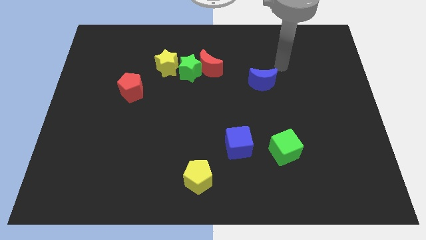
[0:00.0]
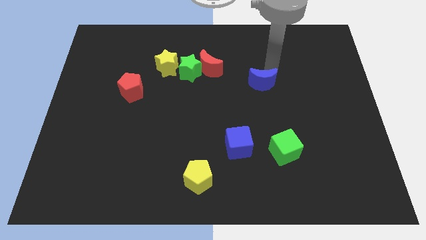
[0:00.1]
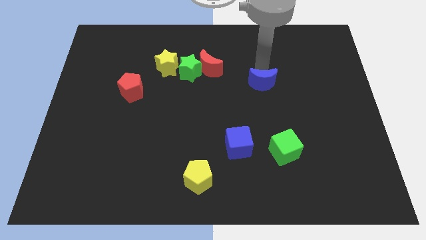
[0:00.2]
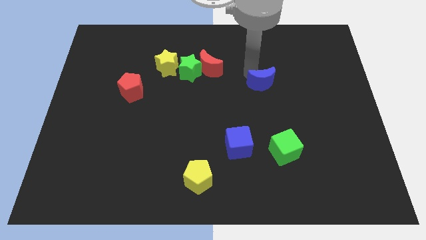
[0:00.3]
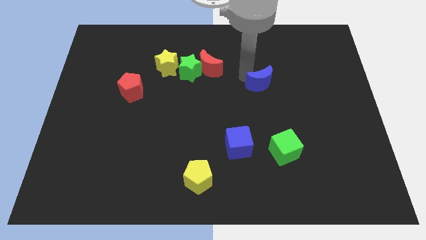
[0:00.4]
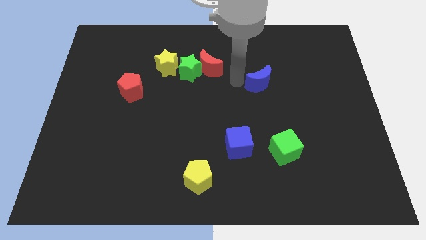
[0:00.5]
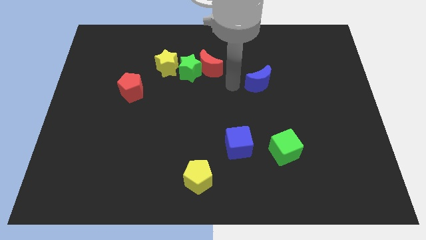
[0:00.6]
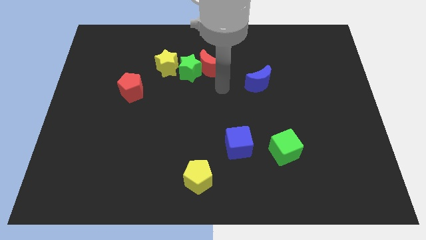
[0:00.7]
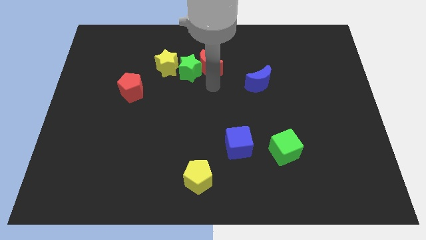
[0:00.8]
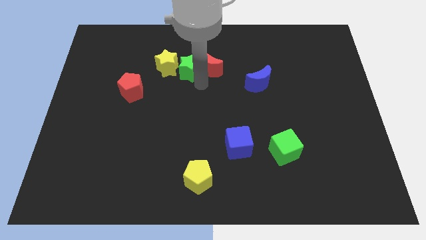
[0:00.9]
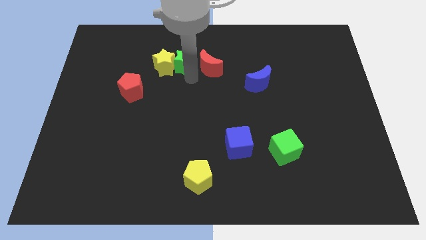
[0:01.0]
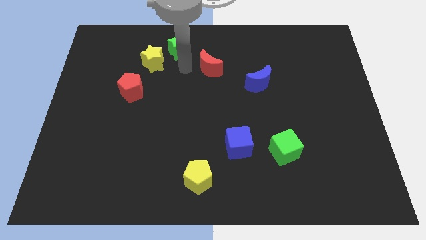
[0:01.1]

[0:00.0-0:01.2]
move the red moon away from the green star

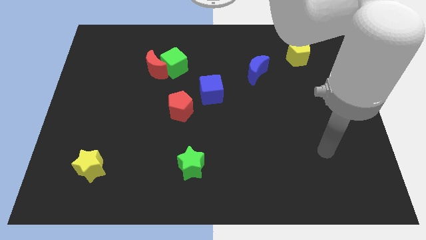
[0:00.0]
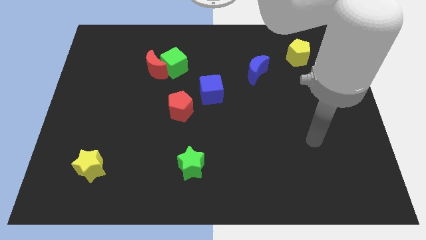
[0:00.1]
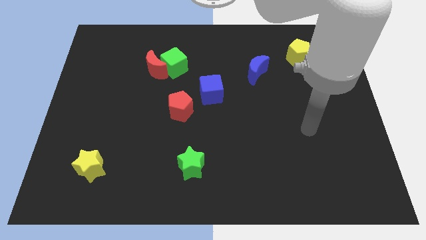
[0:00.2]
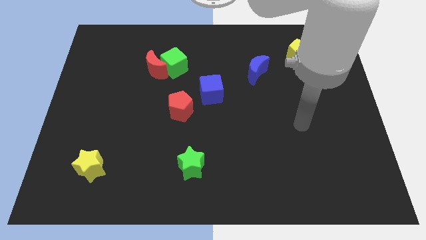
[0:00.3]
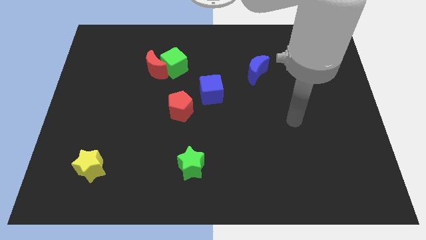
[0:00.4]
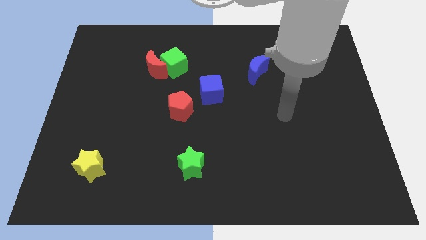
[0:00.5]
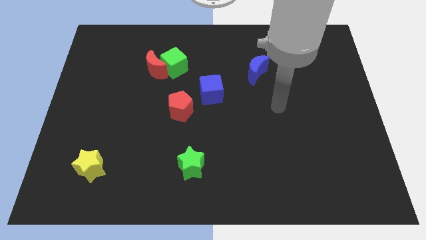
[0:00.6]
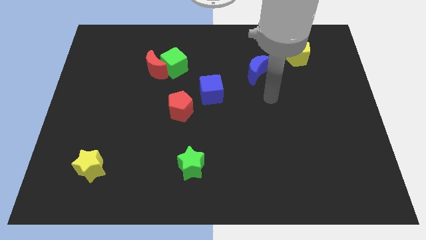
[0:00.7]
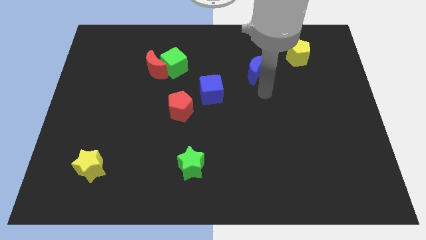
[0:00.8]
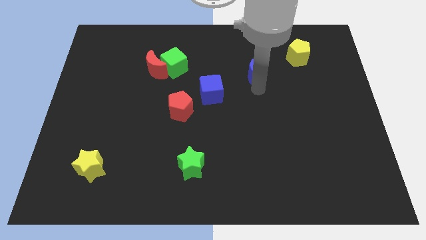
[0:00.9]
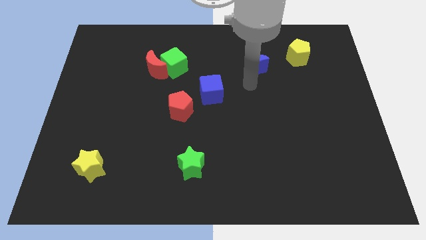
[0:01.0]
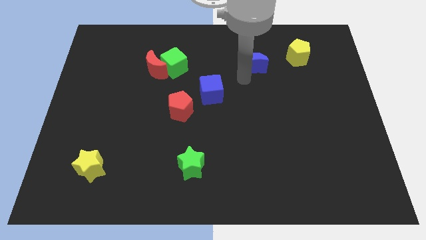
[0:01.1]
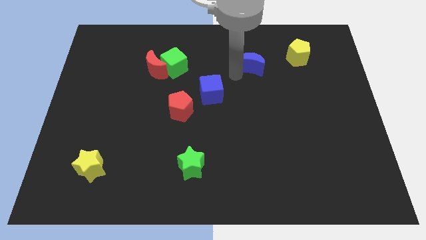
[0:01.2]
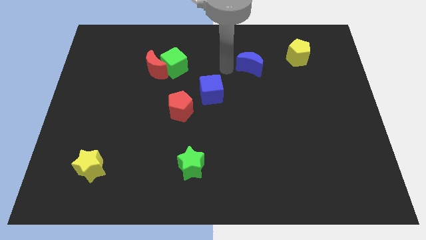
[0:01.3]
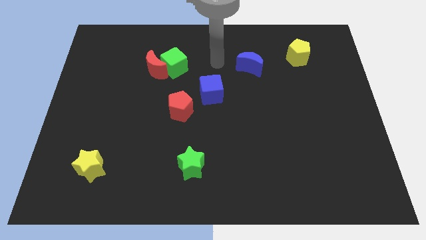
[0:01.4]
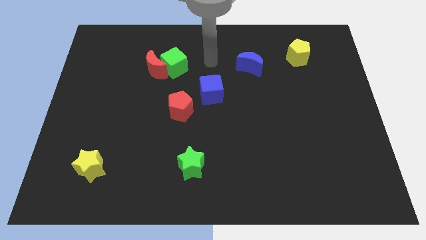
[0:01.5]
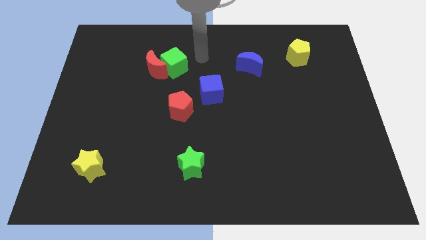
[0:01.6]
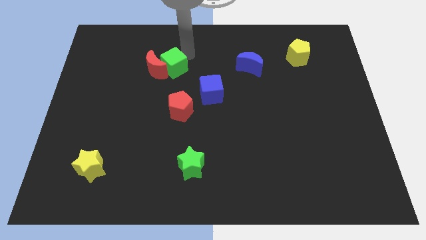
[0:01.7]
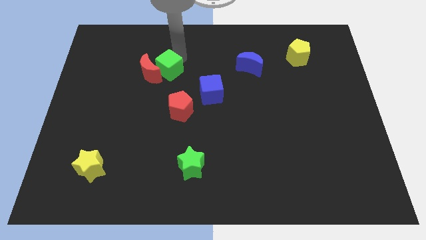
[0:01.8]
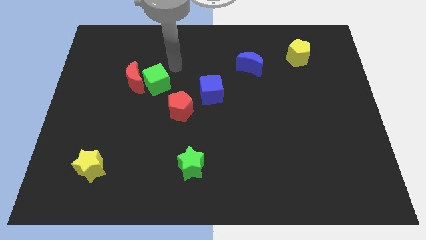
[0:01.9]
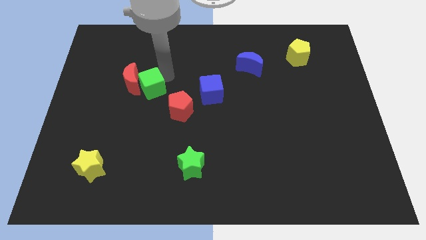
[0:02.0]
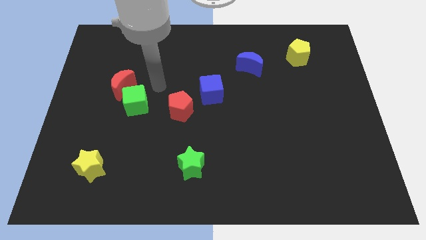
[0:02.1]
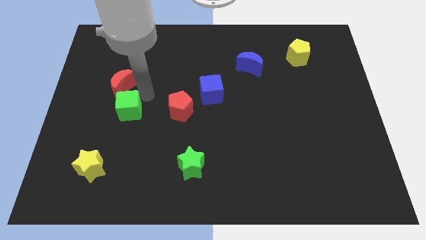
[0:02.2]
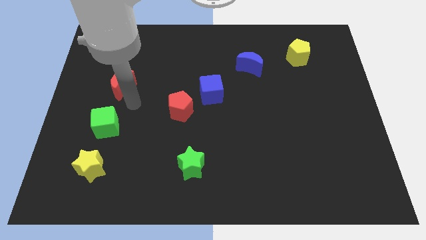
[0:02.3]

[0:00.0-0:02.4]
separate the red moon from the green cube

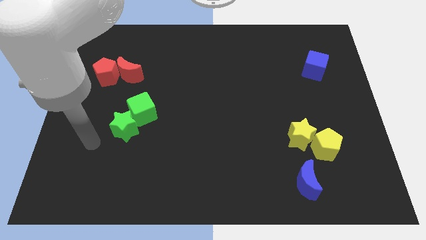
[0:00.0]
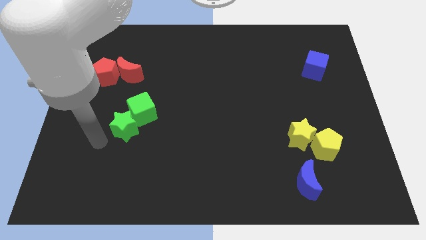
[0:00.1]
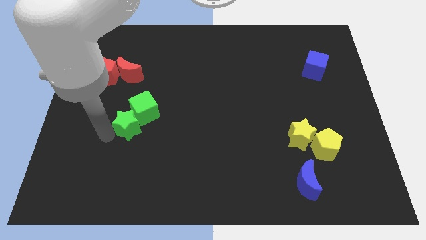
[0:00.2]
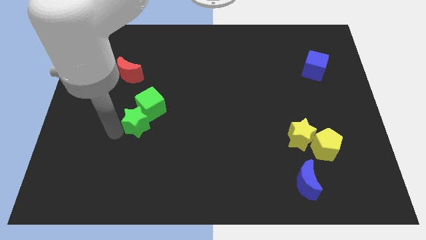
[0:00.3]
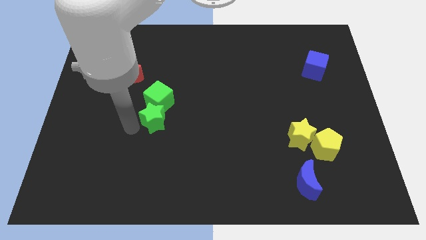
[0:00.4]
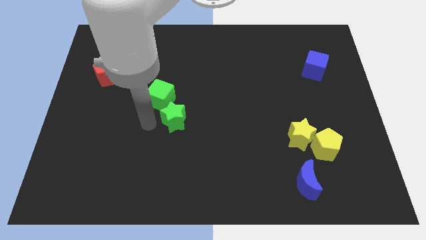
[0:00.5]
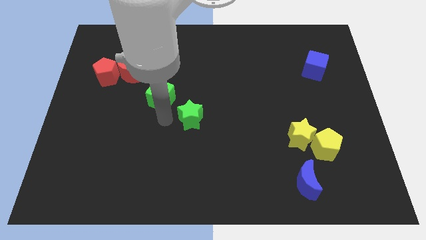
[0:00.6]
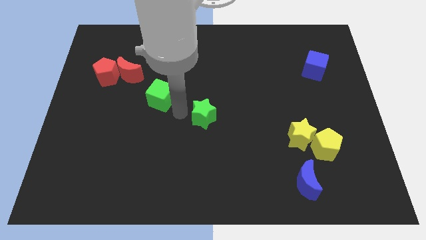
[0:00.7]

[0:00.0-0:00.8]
pull the green cube apart from the green star

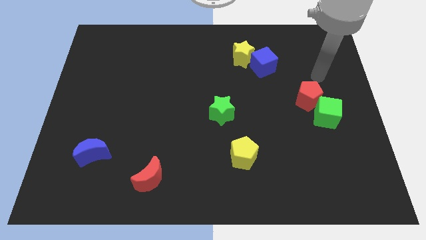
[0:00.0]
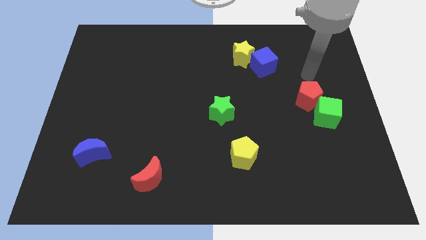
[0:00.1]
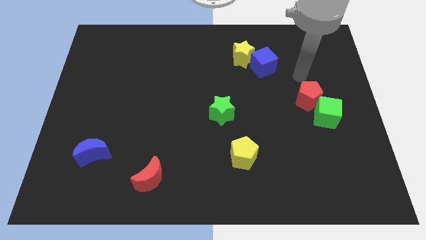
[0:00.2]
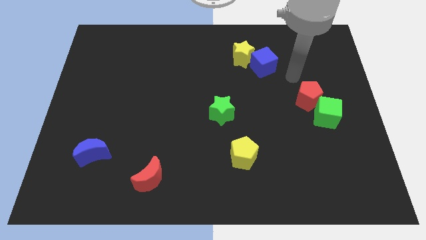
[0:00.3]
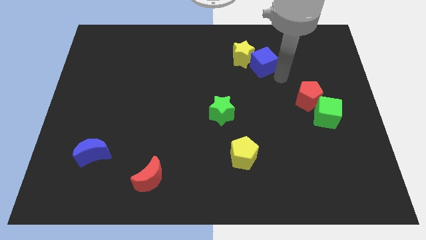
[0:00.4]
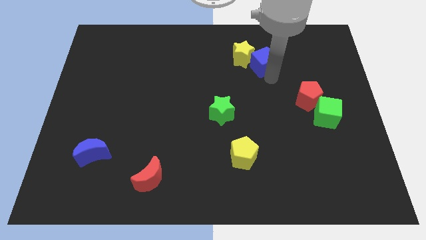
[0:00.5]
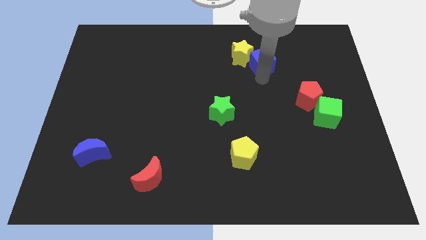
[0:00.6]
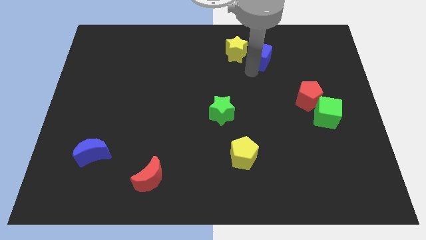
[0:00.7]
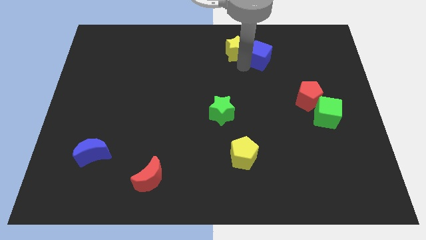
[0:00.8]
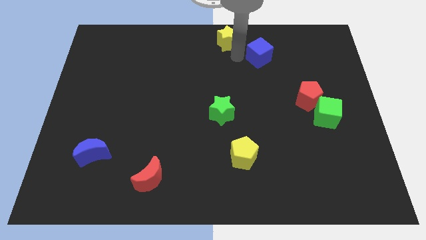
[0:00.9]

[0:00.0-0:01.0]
pull the blue cube apart from the yellow star

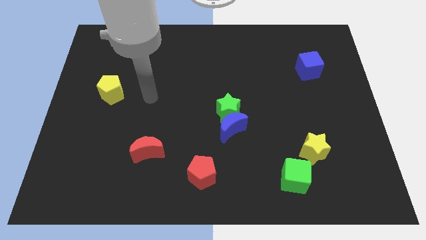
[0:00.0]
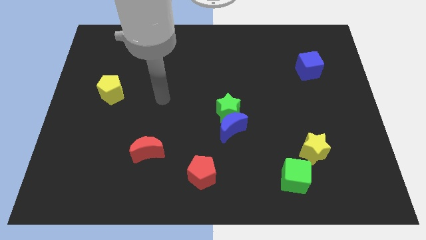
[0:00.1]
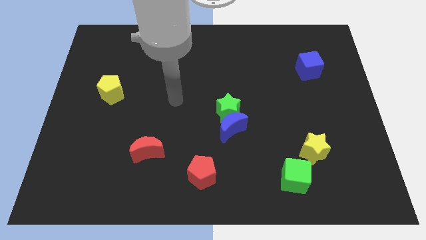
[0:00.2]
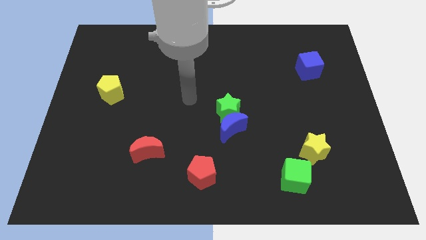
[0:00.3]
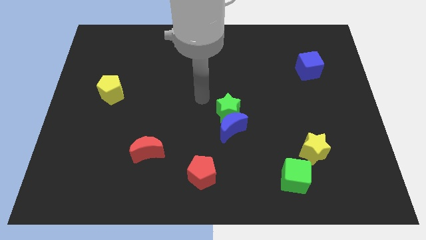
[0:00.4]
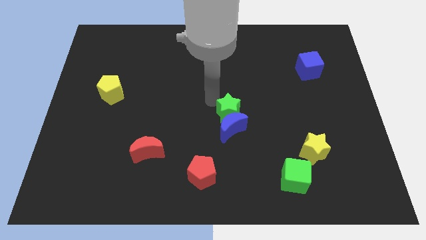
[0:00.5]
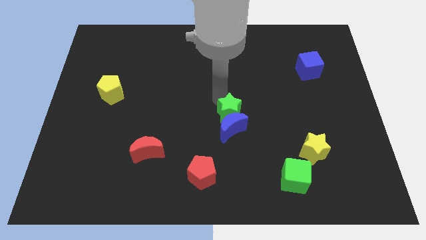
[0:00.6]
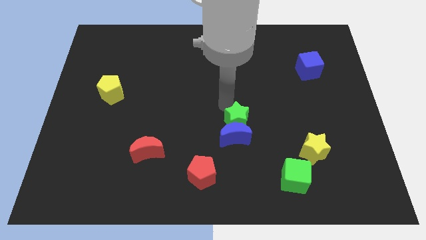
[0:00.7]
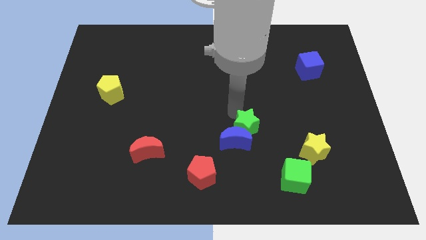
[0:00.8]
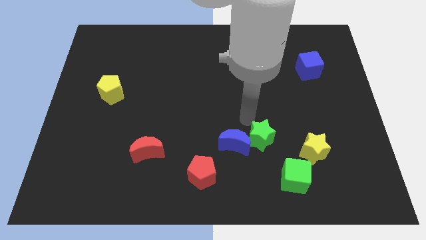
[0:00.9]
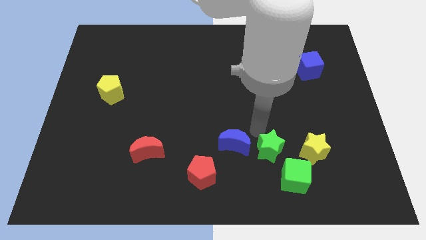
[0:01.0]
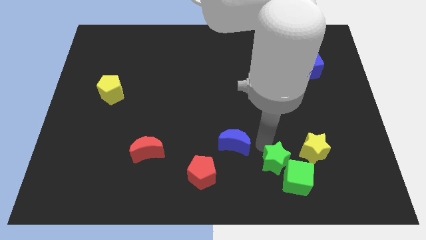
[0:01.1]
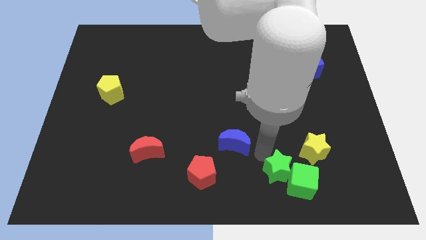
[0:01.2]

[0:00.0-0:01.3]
separate the blue moon from the green star

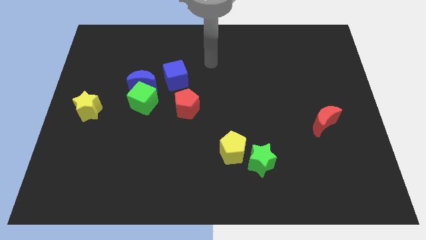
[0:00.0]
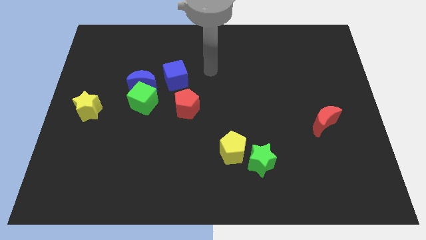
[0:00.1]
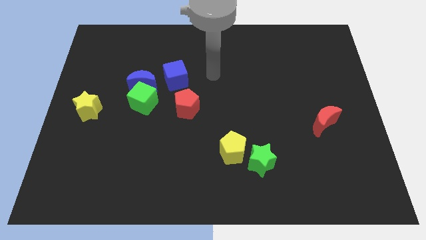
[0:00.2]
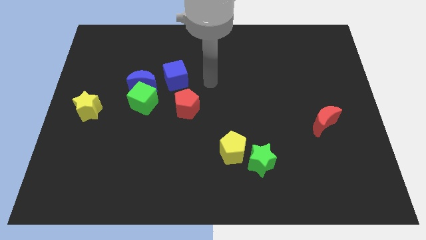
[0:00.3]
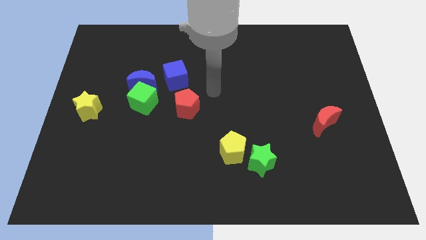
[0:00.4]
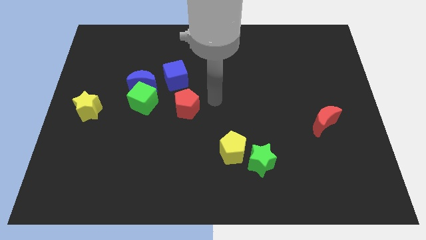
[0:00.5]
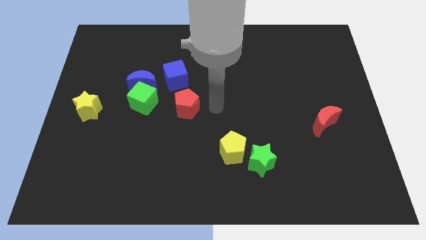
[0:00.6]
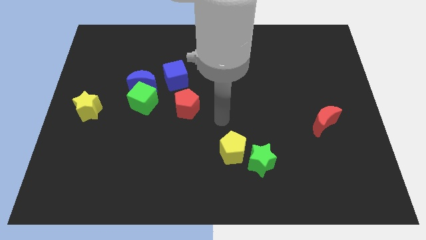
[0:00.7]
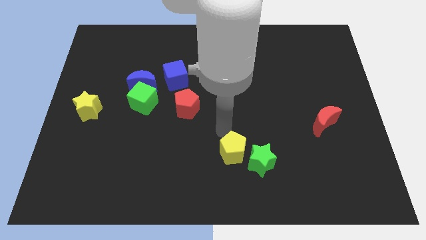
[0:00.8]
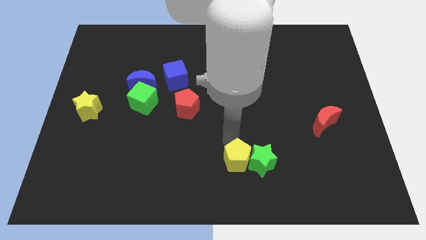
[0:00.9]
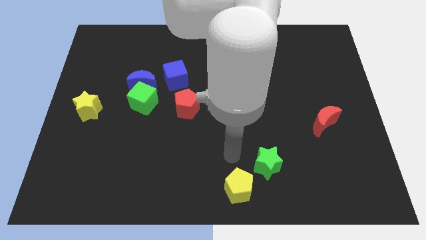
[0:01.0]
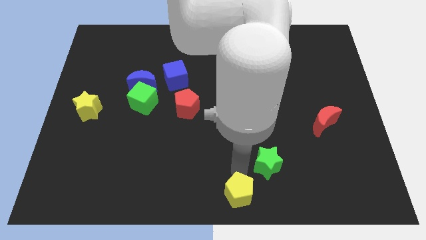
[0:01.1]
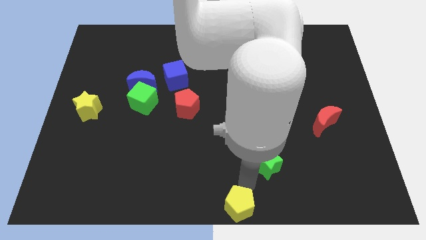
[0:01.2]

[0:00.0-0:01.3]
move the green star away from the yellow pentagon

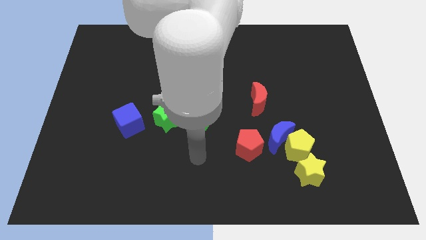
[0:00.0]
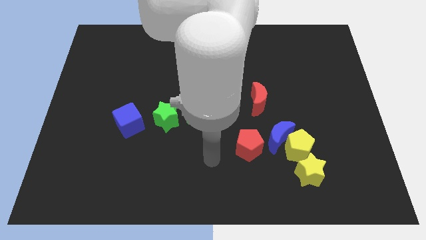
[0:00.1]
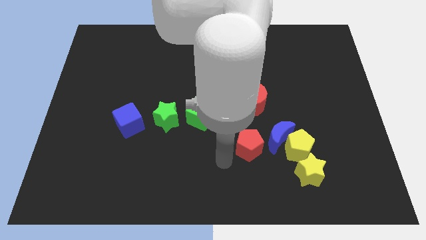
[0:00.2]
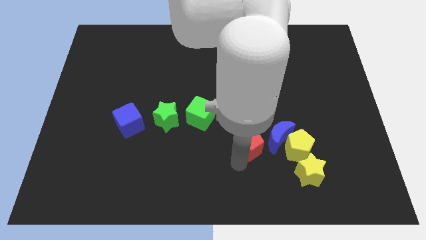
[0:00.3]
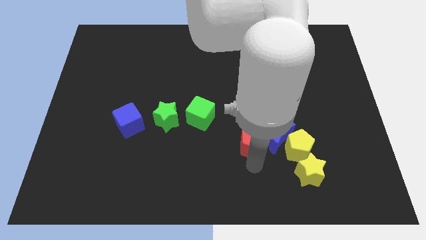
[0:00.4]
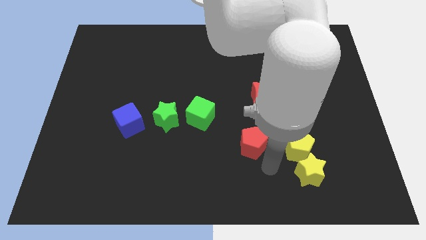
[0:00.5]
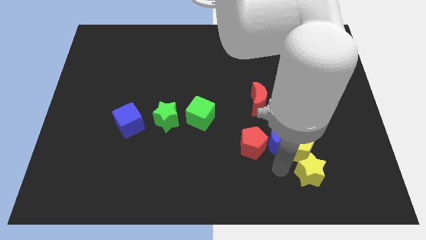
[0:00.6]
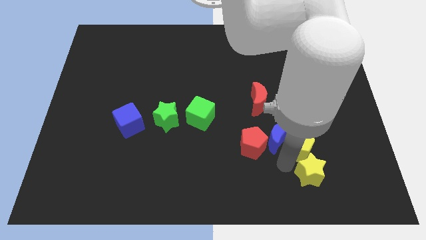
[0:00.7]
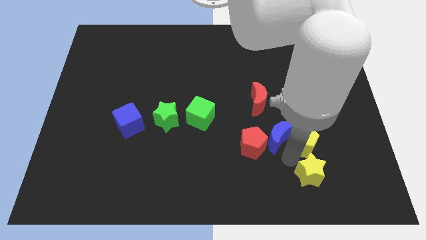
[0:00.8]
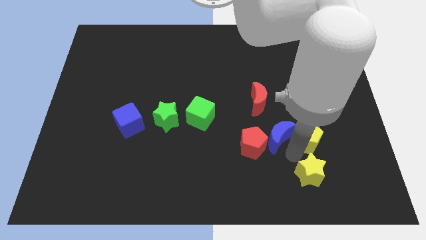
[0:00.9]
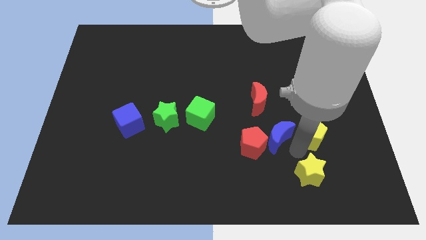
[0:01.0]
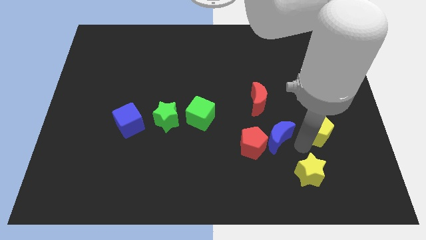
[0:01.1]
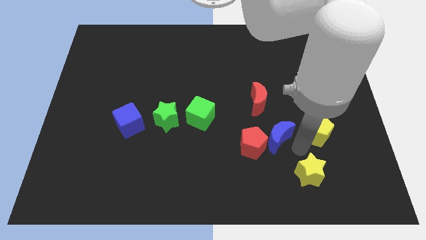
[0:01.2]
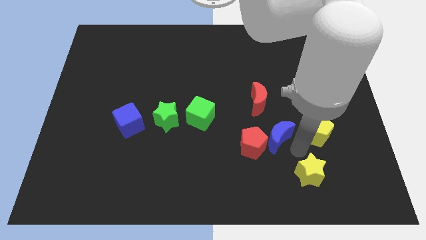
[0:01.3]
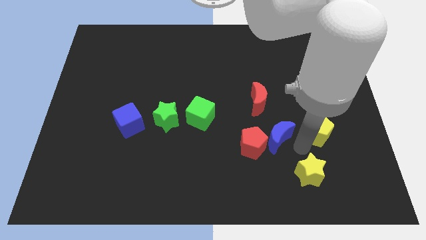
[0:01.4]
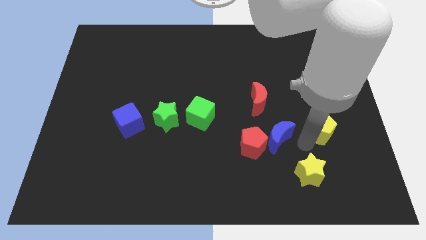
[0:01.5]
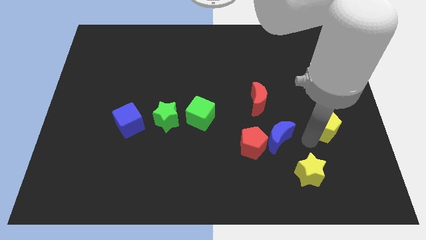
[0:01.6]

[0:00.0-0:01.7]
separate the yellow pentagon from the blue moon and yellow star
